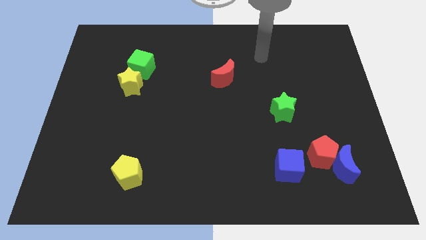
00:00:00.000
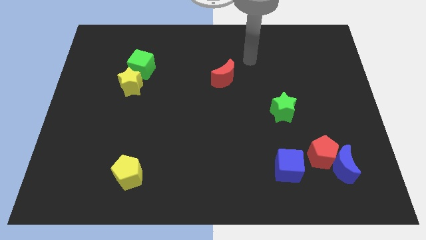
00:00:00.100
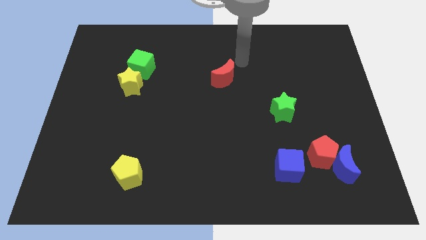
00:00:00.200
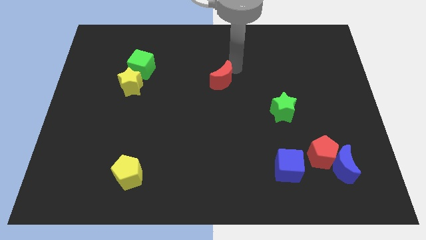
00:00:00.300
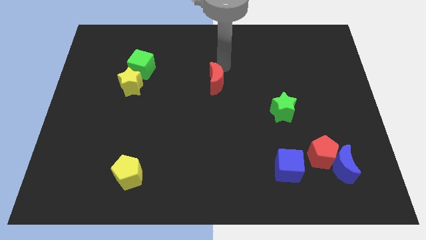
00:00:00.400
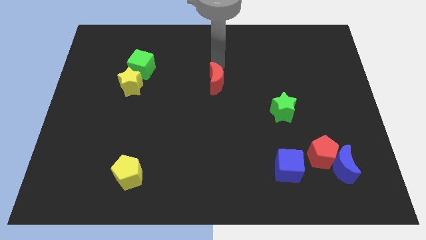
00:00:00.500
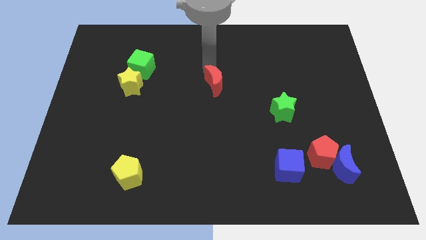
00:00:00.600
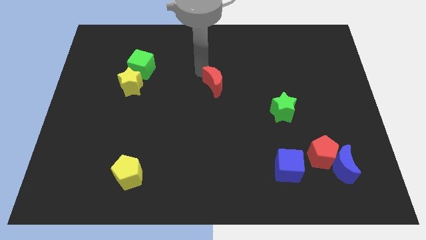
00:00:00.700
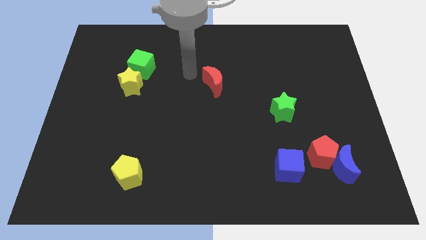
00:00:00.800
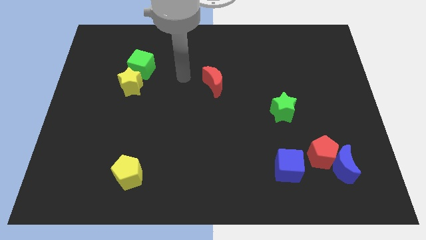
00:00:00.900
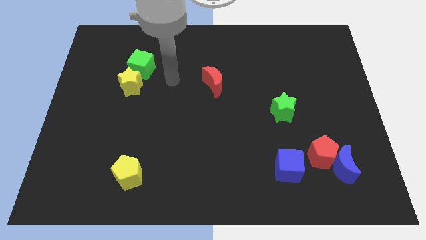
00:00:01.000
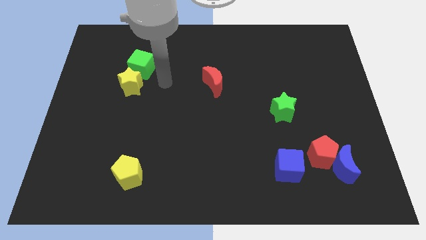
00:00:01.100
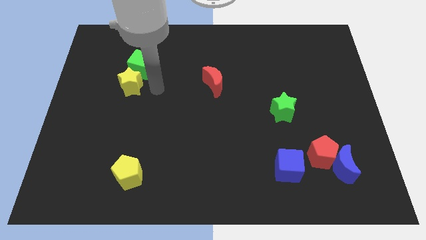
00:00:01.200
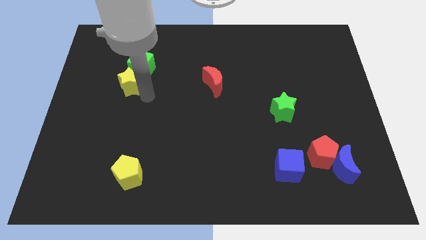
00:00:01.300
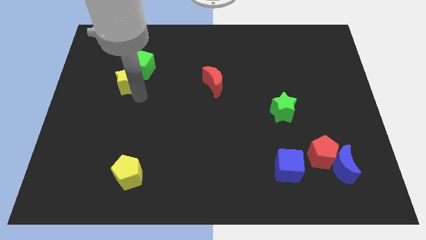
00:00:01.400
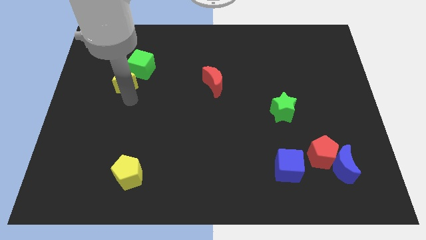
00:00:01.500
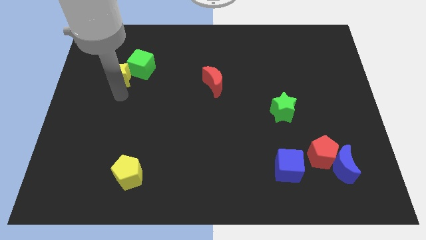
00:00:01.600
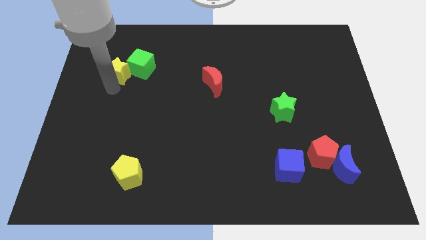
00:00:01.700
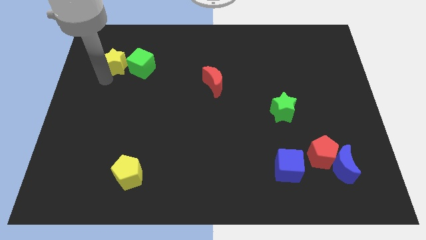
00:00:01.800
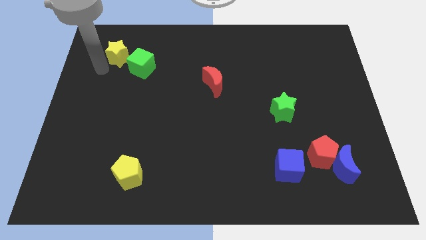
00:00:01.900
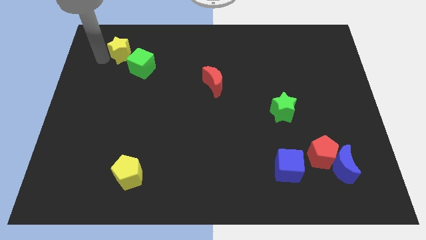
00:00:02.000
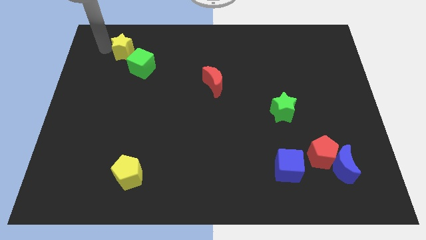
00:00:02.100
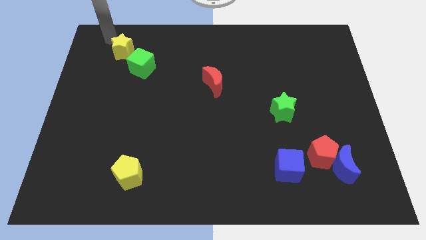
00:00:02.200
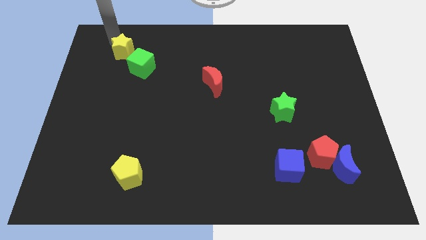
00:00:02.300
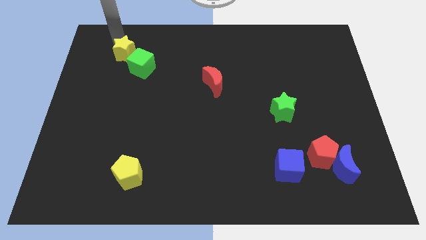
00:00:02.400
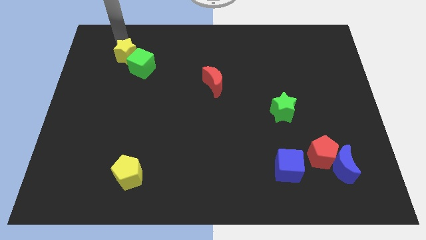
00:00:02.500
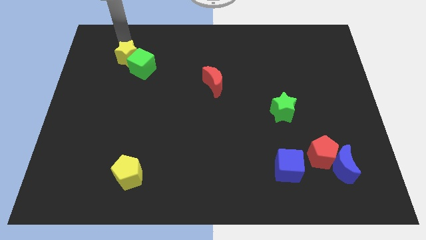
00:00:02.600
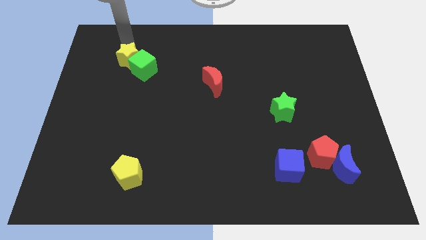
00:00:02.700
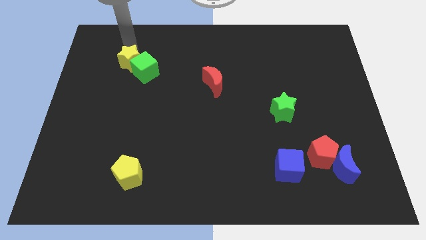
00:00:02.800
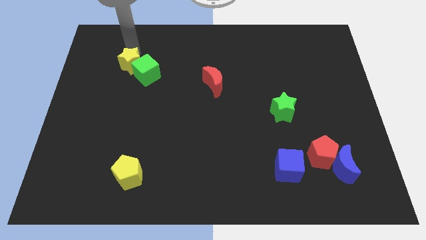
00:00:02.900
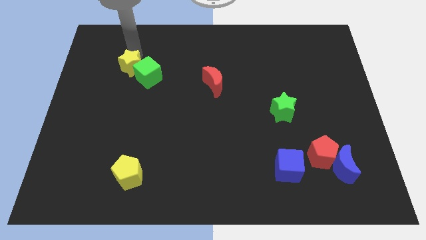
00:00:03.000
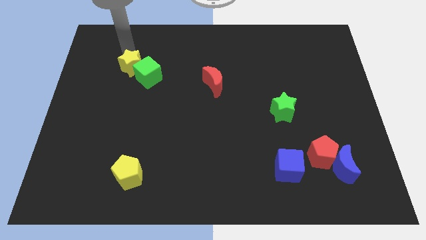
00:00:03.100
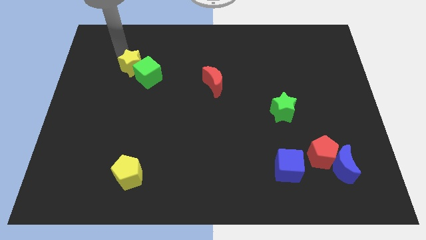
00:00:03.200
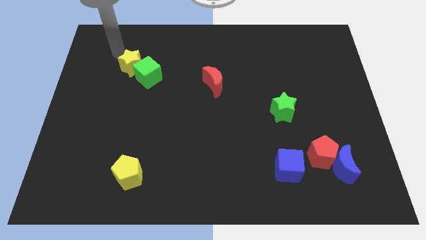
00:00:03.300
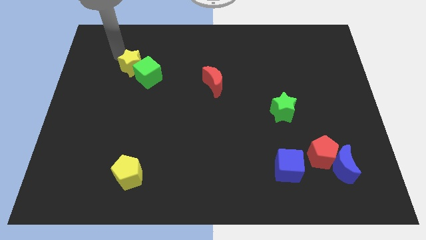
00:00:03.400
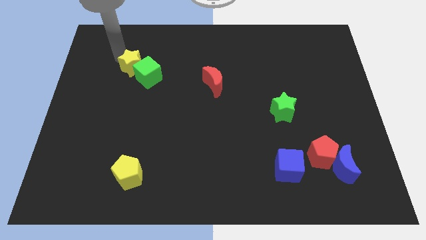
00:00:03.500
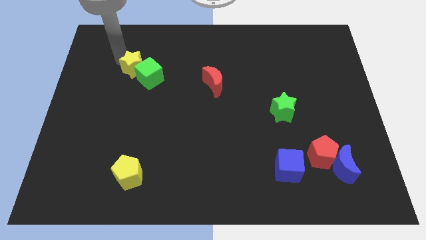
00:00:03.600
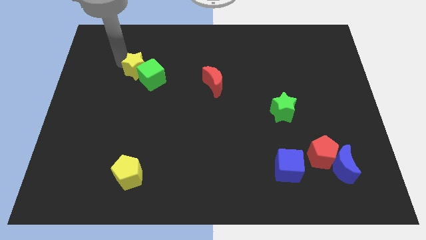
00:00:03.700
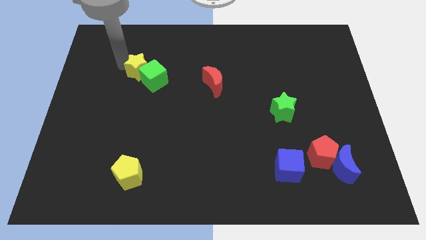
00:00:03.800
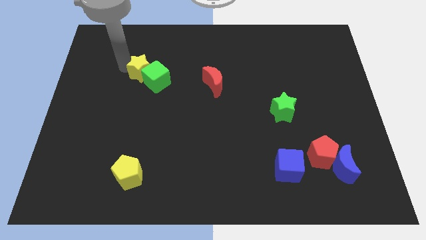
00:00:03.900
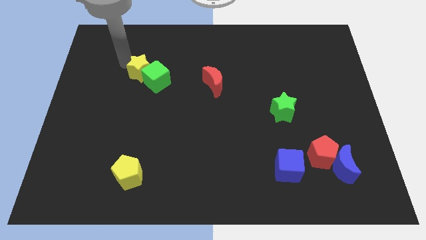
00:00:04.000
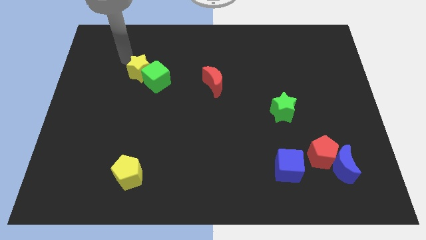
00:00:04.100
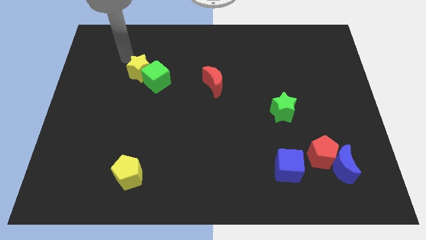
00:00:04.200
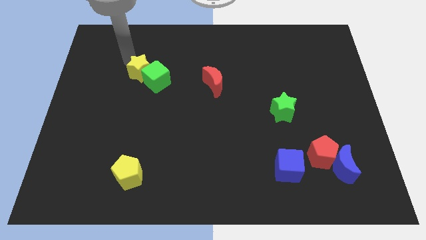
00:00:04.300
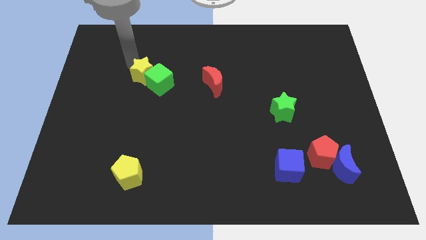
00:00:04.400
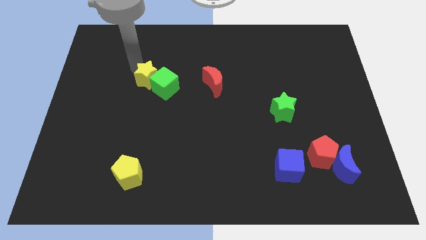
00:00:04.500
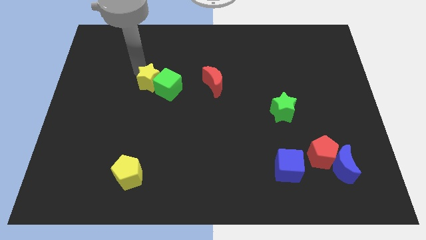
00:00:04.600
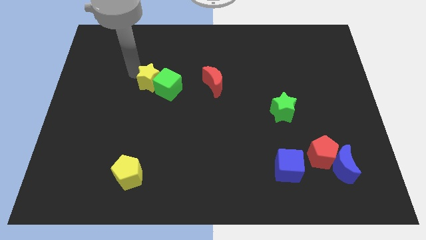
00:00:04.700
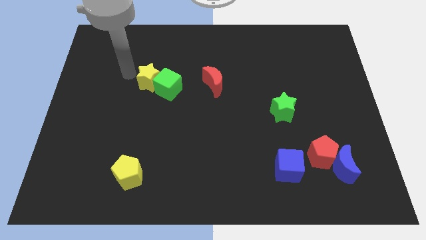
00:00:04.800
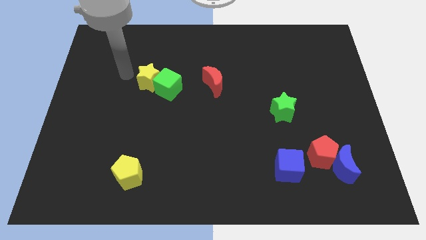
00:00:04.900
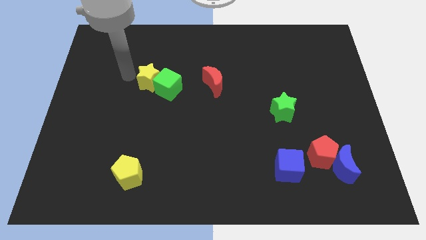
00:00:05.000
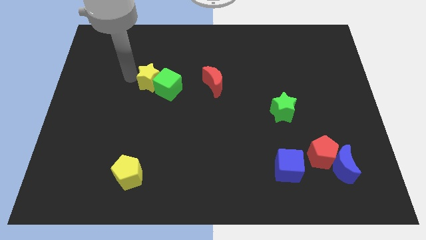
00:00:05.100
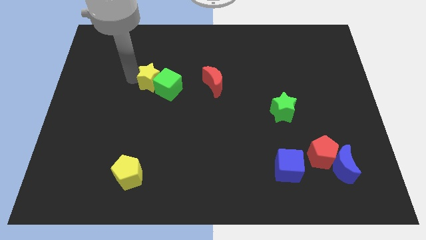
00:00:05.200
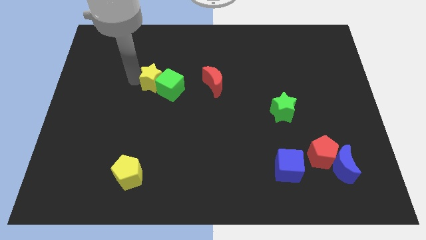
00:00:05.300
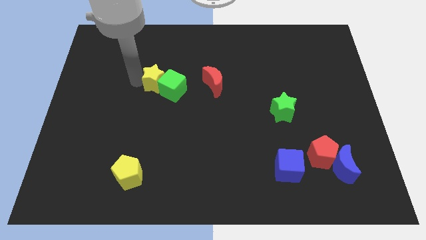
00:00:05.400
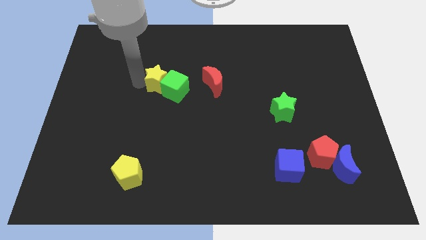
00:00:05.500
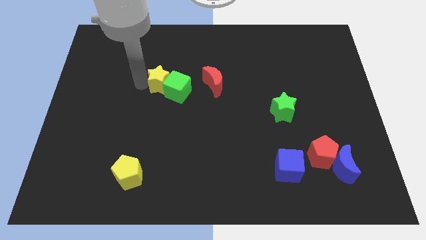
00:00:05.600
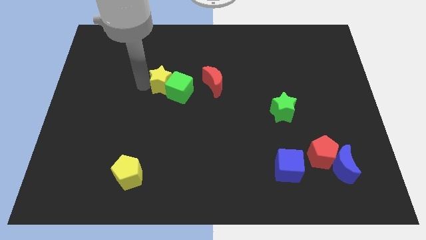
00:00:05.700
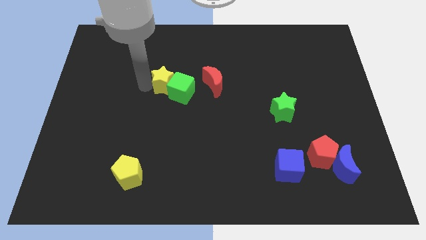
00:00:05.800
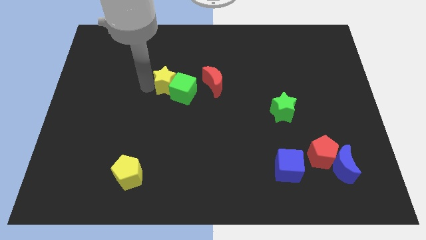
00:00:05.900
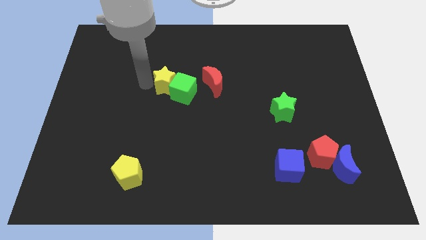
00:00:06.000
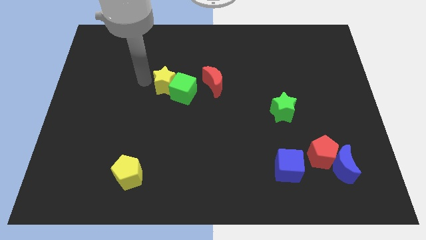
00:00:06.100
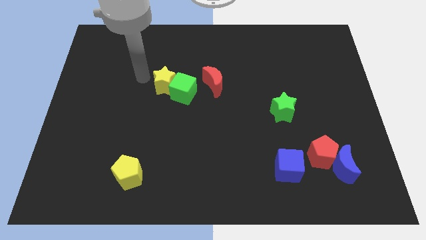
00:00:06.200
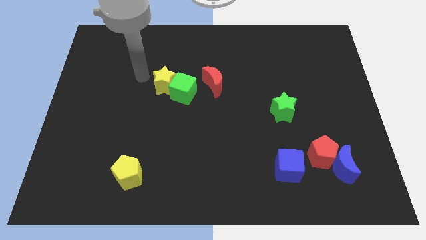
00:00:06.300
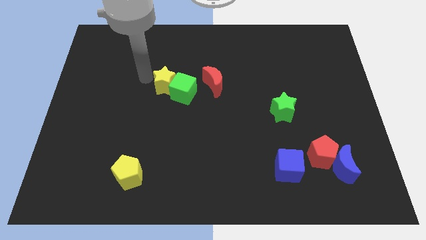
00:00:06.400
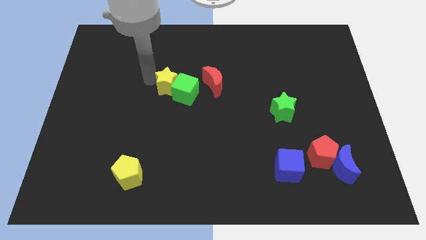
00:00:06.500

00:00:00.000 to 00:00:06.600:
move the yellow star to the center
